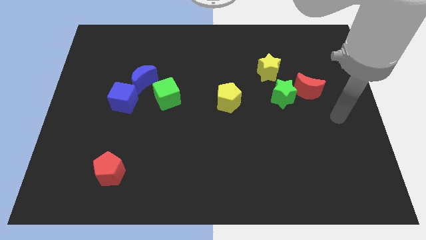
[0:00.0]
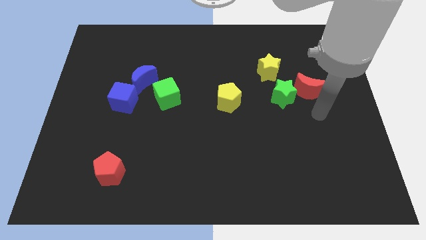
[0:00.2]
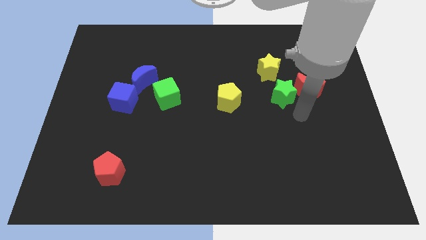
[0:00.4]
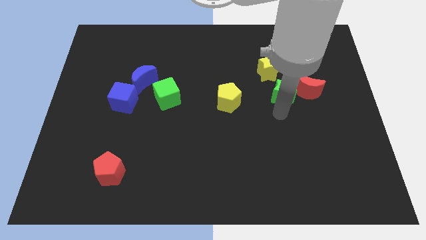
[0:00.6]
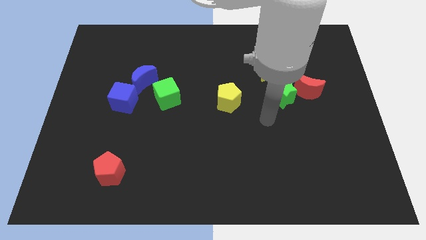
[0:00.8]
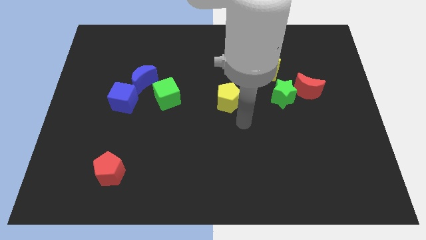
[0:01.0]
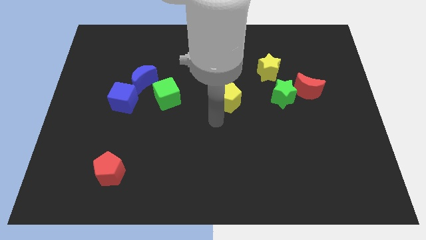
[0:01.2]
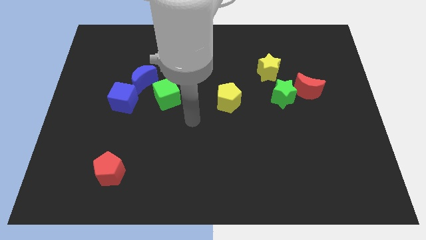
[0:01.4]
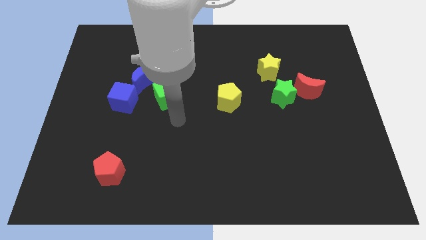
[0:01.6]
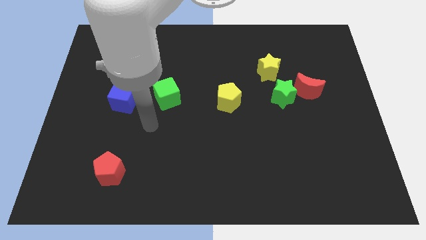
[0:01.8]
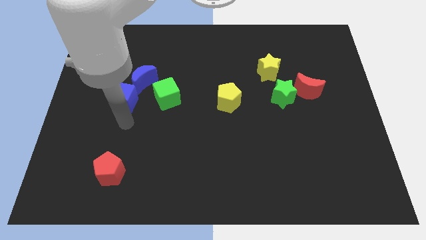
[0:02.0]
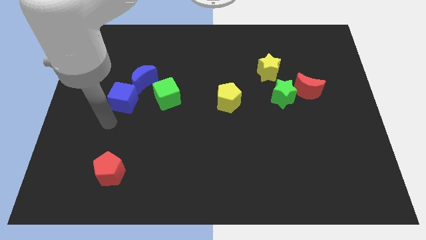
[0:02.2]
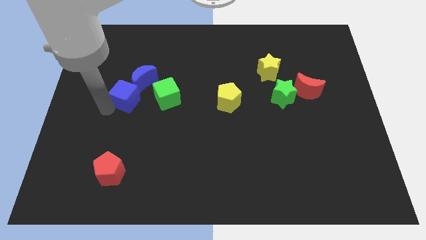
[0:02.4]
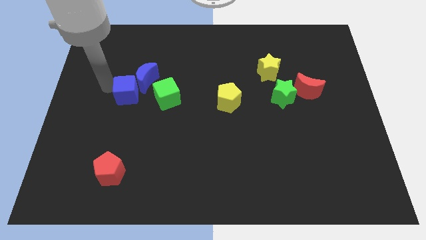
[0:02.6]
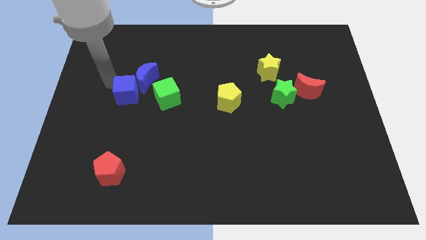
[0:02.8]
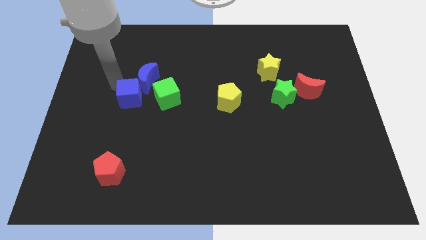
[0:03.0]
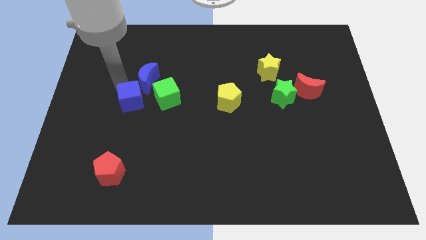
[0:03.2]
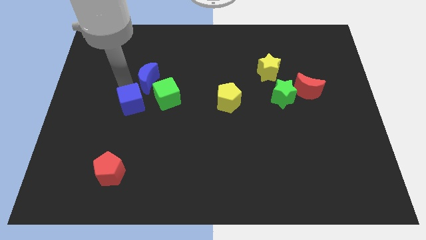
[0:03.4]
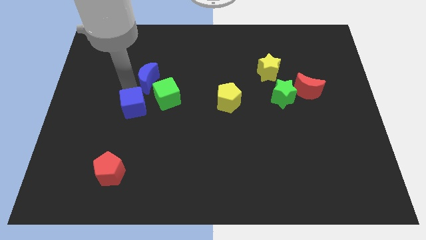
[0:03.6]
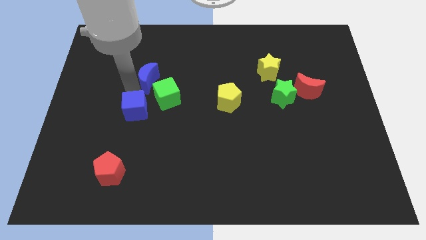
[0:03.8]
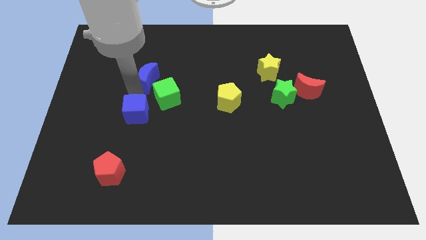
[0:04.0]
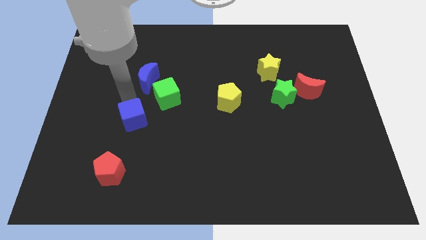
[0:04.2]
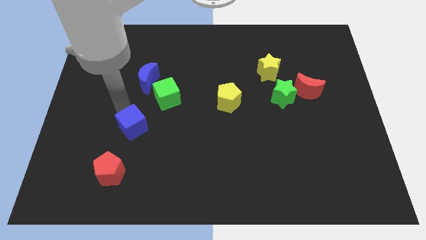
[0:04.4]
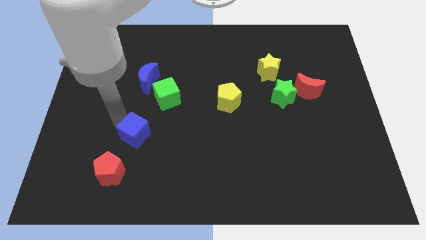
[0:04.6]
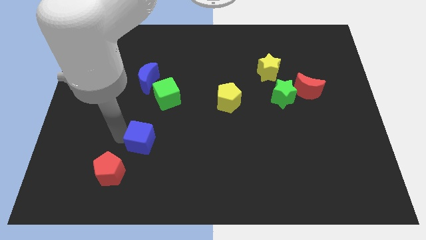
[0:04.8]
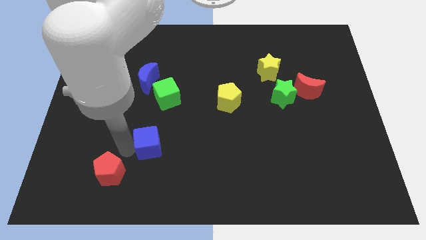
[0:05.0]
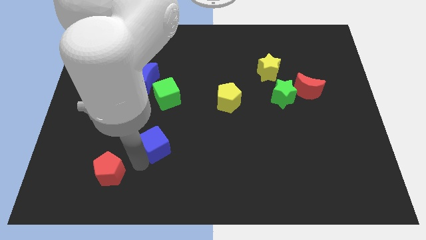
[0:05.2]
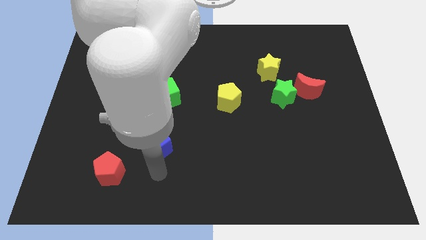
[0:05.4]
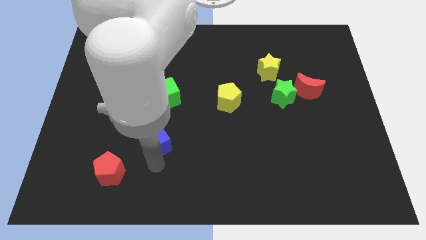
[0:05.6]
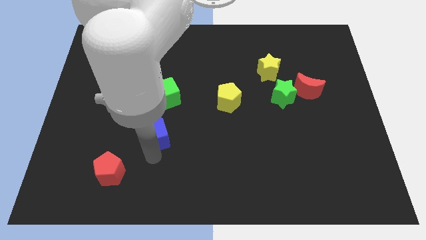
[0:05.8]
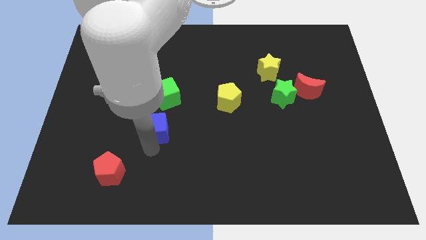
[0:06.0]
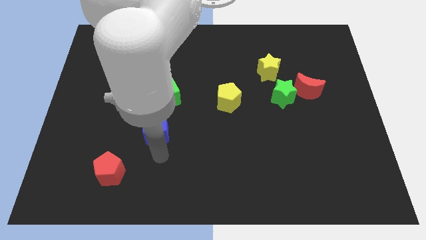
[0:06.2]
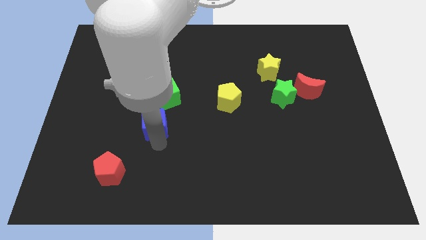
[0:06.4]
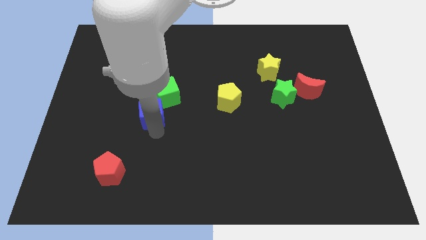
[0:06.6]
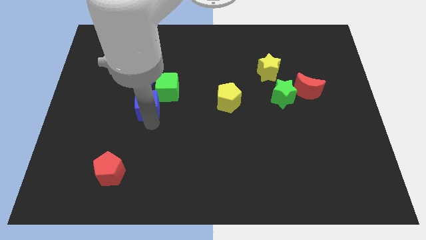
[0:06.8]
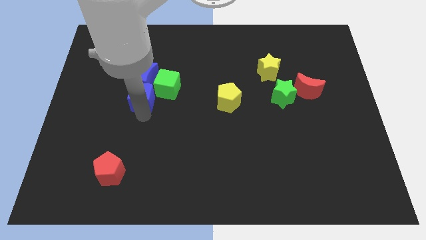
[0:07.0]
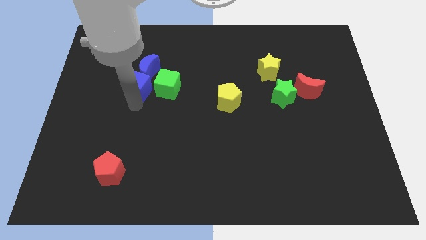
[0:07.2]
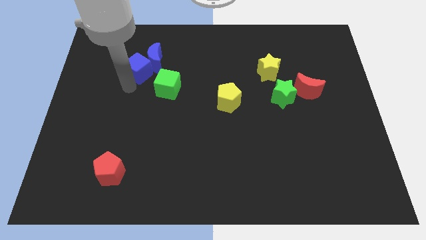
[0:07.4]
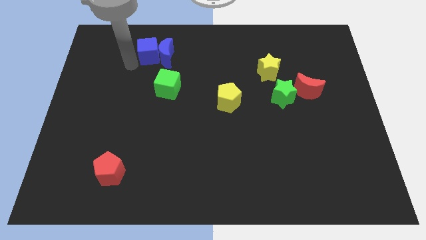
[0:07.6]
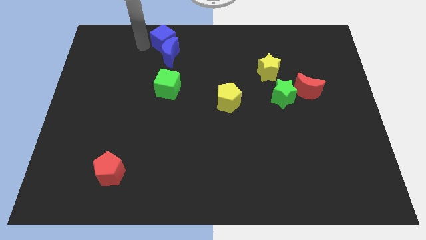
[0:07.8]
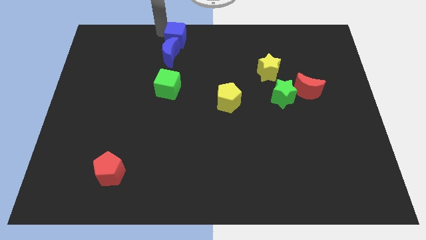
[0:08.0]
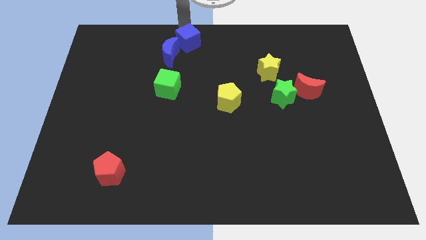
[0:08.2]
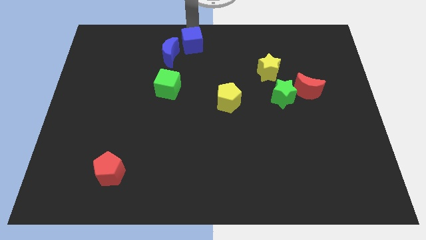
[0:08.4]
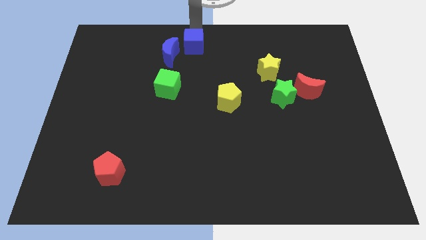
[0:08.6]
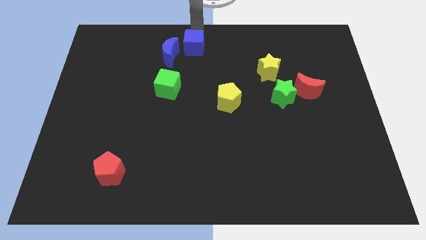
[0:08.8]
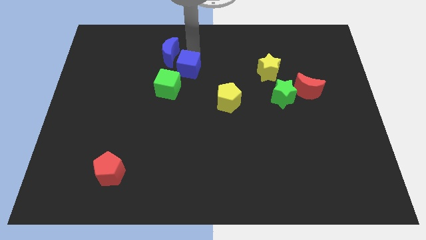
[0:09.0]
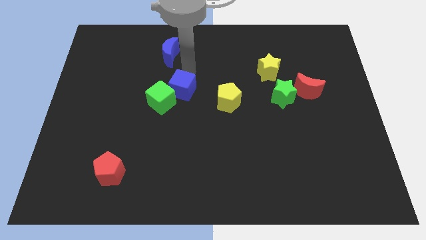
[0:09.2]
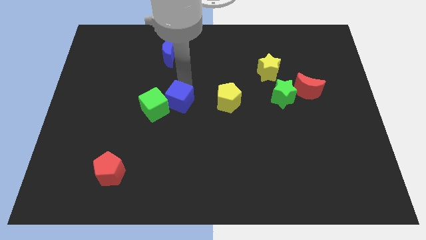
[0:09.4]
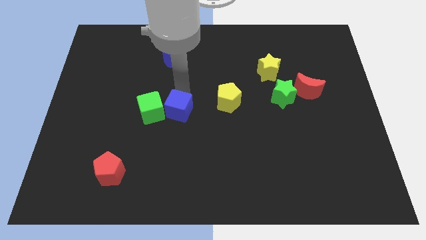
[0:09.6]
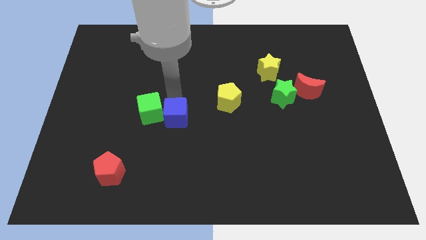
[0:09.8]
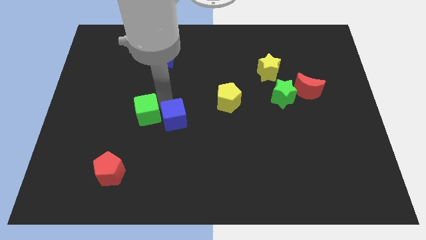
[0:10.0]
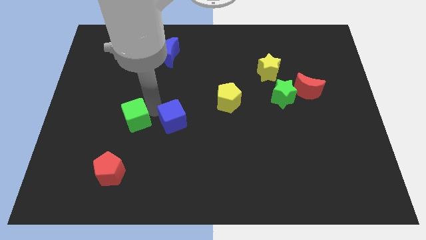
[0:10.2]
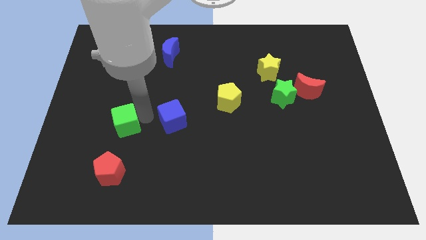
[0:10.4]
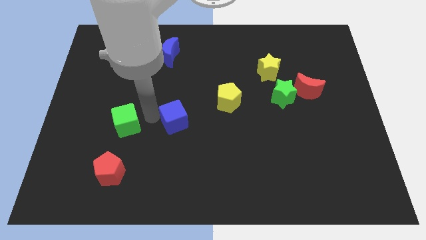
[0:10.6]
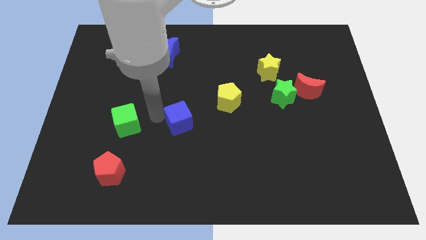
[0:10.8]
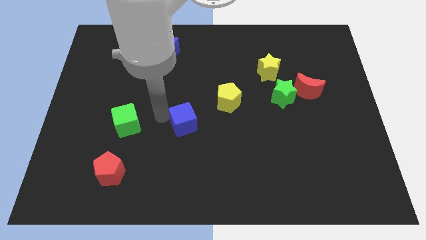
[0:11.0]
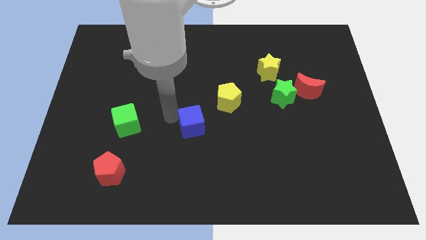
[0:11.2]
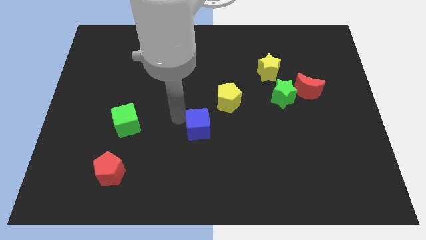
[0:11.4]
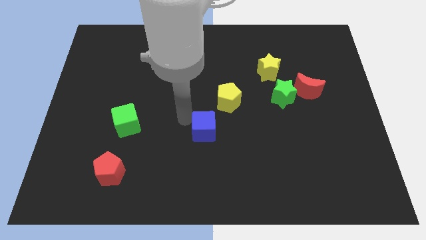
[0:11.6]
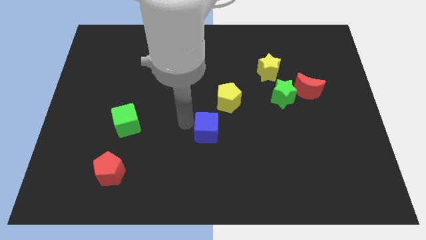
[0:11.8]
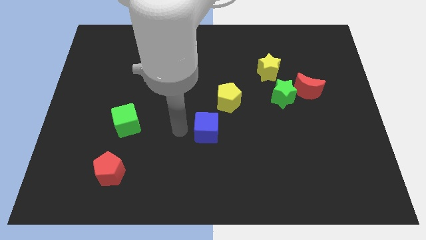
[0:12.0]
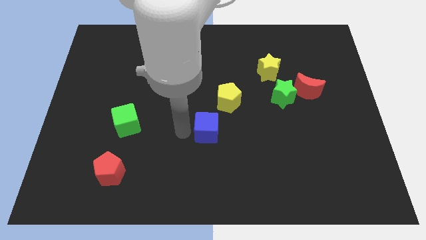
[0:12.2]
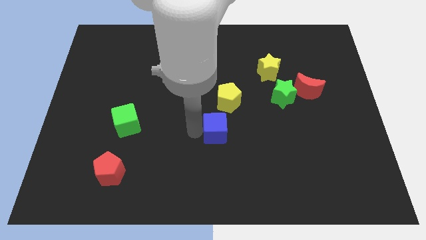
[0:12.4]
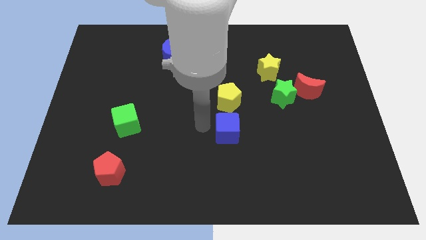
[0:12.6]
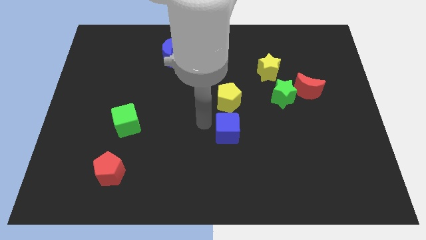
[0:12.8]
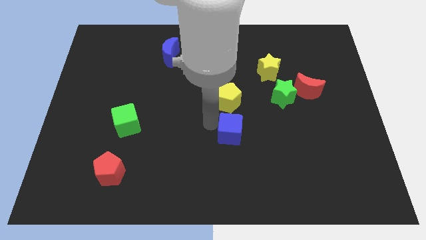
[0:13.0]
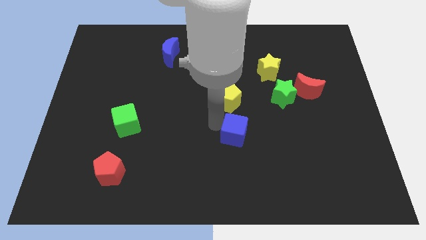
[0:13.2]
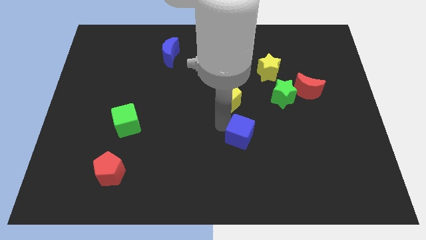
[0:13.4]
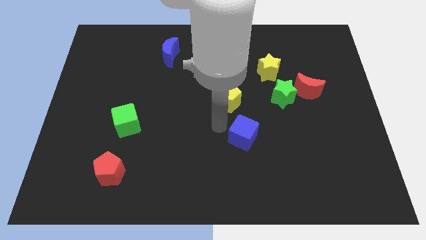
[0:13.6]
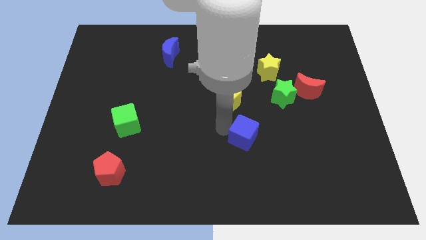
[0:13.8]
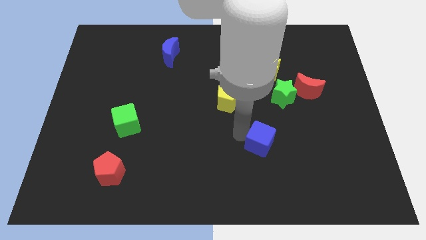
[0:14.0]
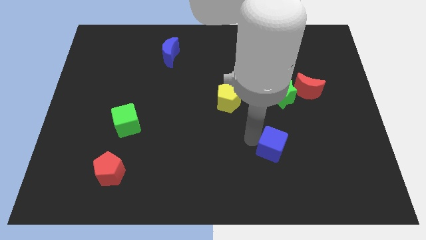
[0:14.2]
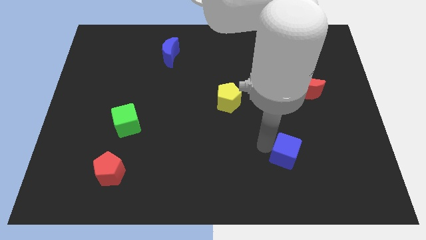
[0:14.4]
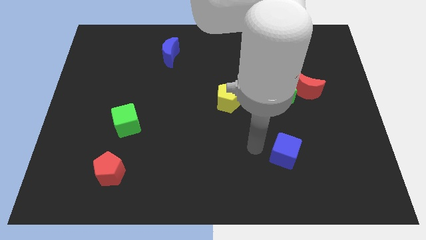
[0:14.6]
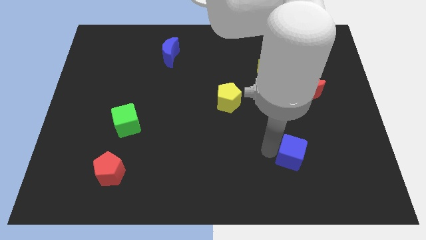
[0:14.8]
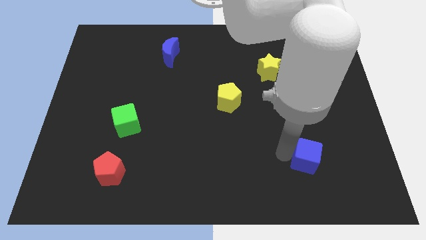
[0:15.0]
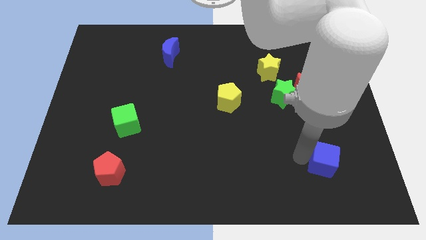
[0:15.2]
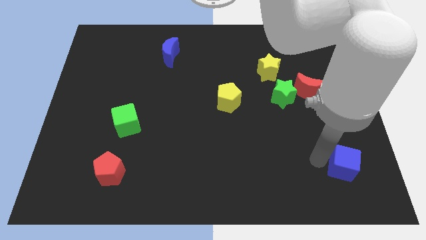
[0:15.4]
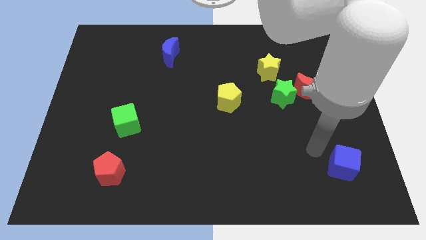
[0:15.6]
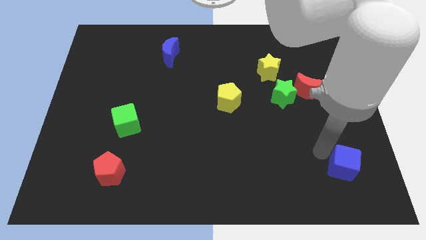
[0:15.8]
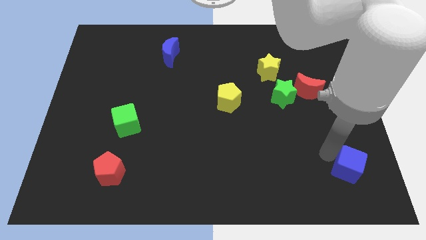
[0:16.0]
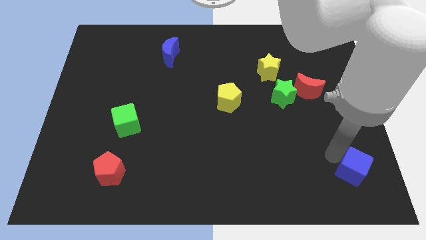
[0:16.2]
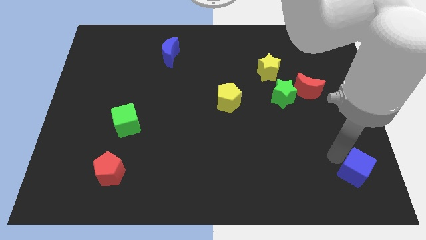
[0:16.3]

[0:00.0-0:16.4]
move the blue cube to the bottom right of the board
